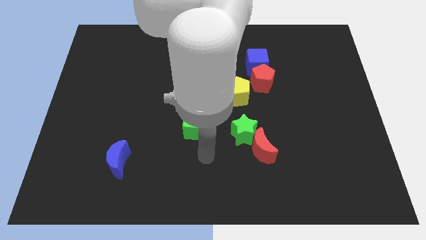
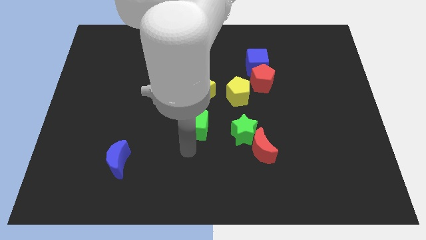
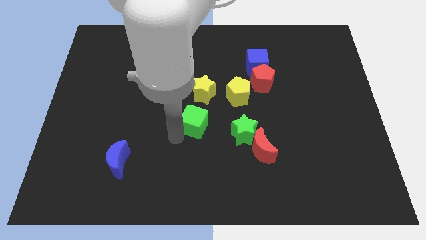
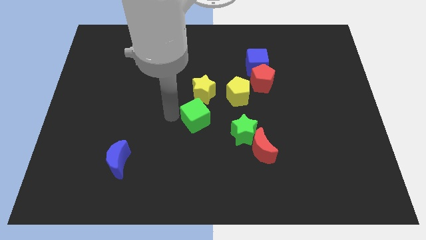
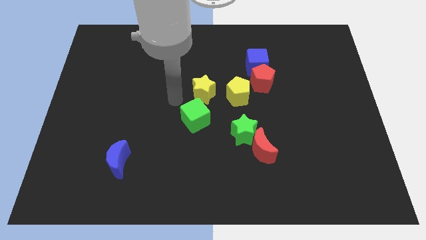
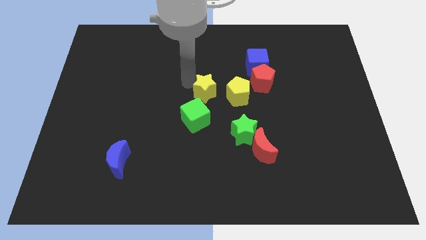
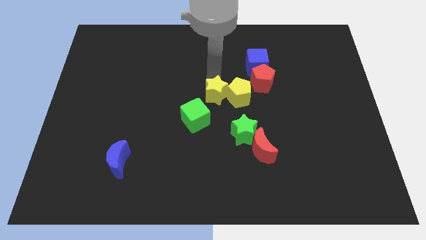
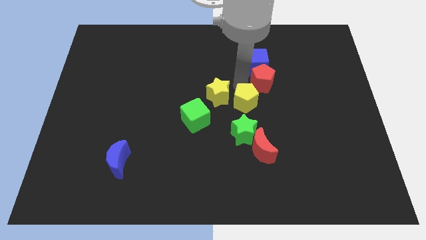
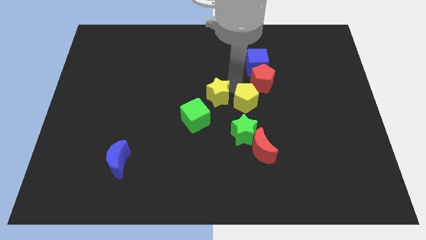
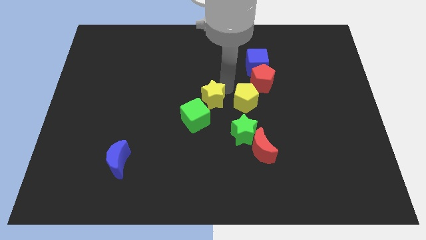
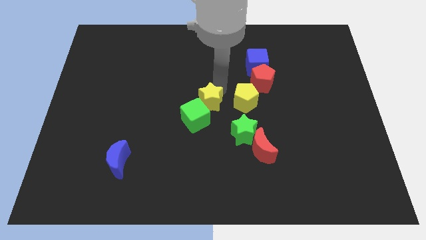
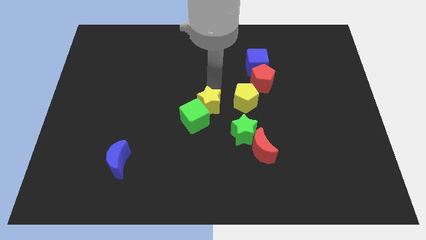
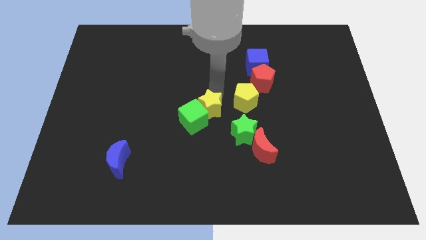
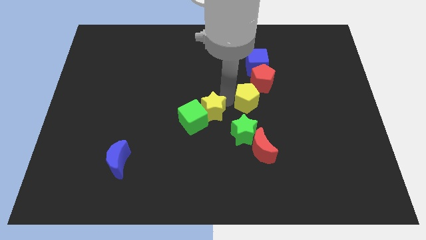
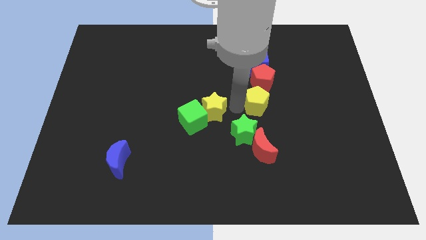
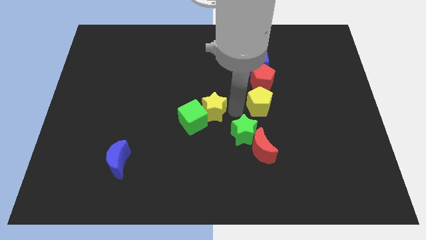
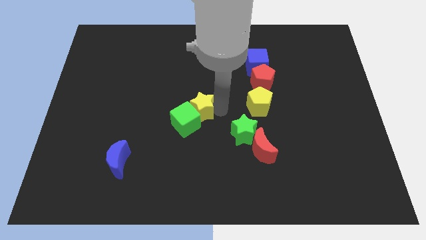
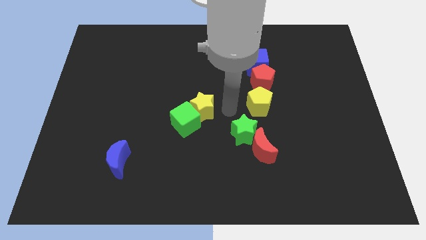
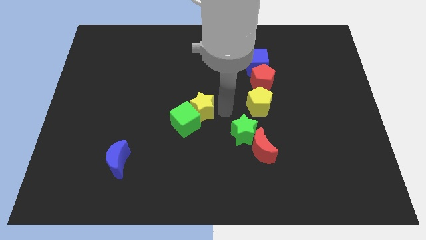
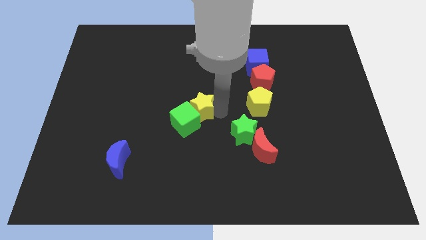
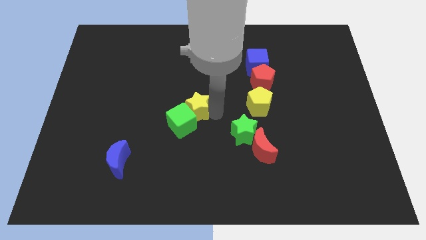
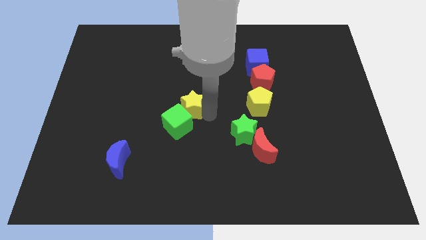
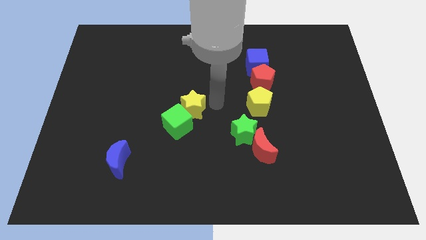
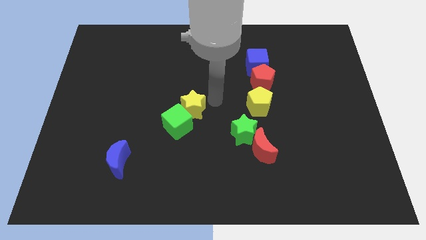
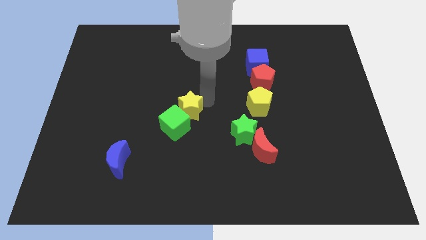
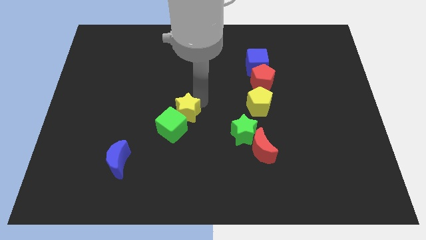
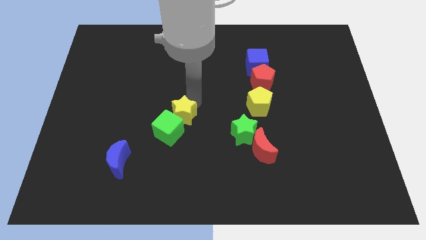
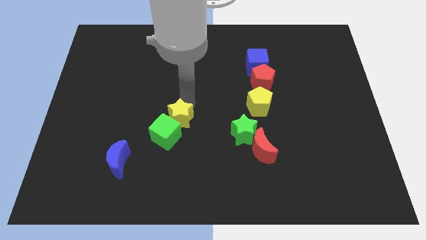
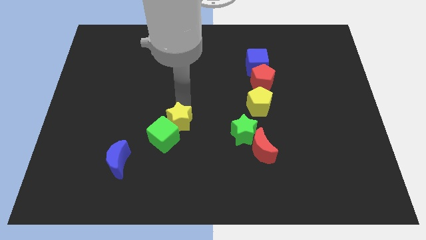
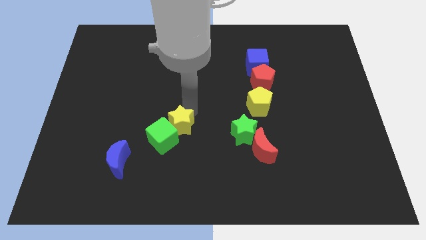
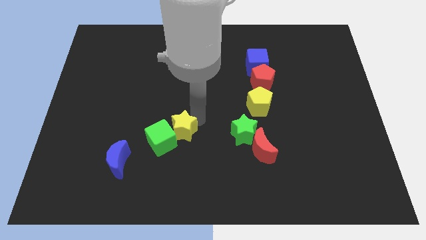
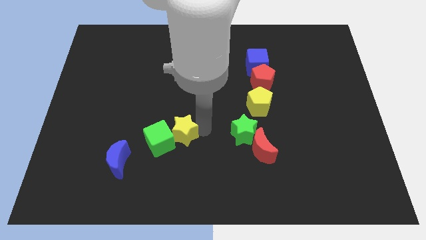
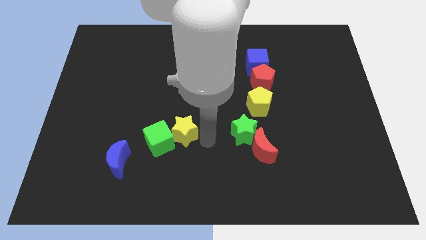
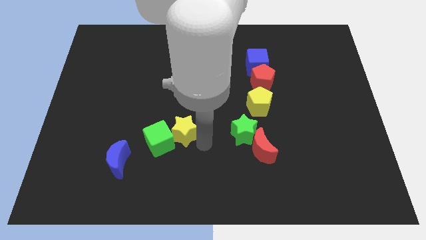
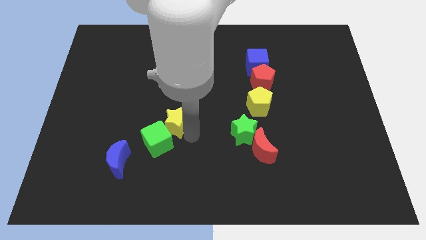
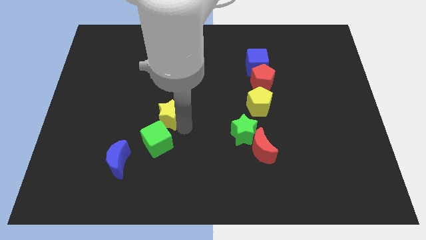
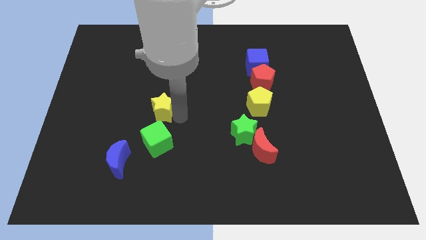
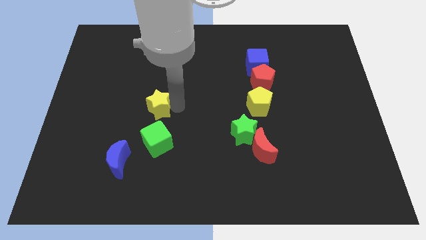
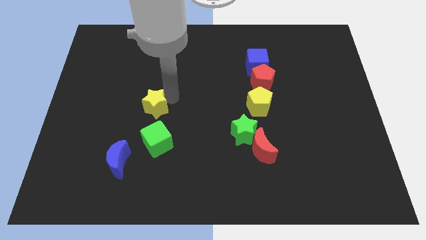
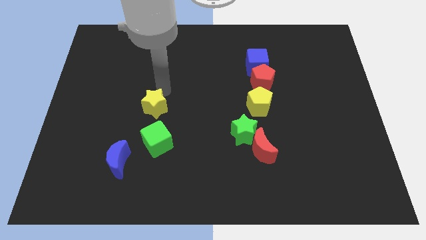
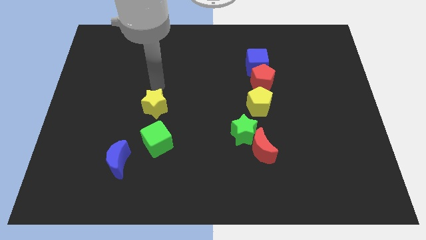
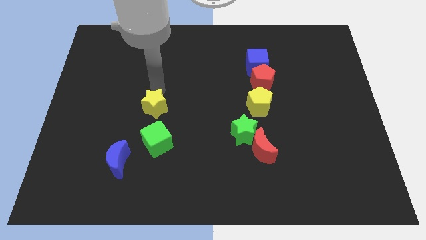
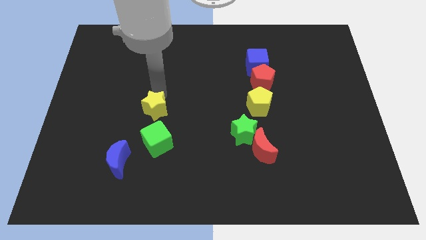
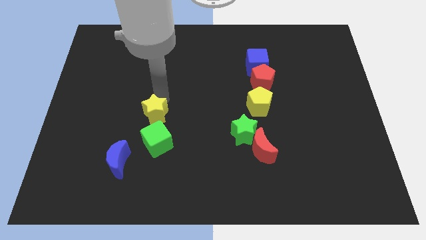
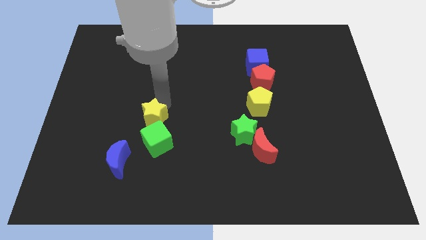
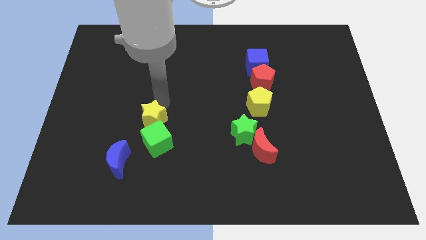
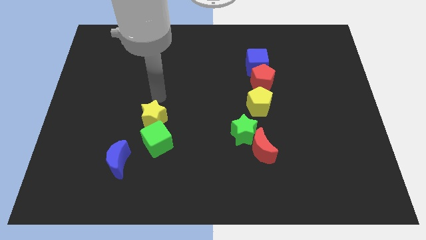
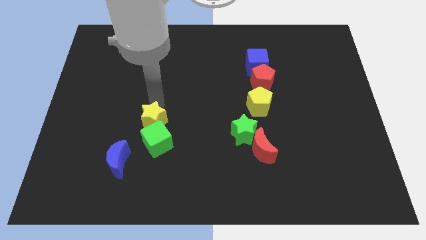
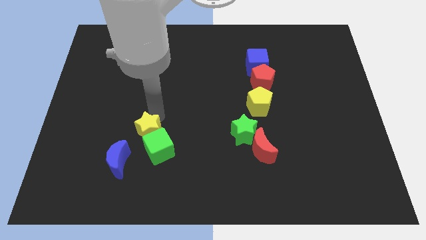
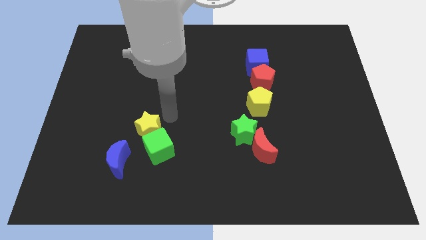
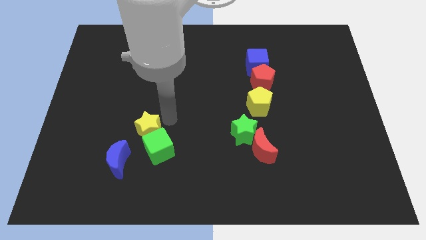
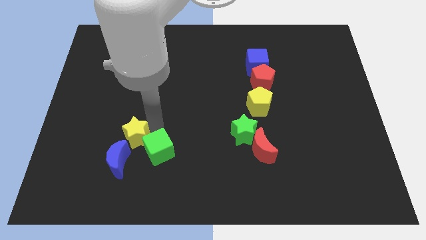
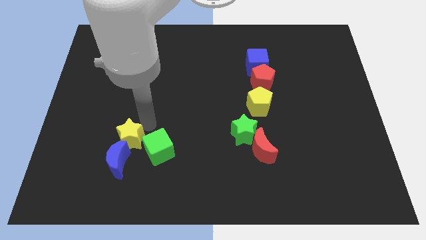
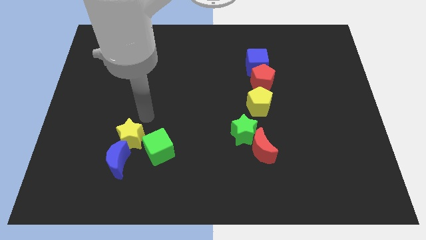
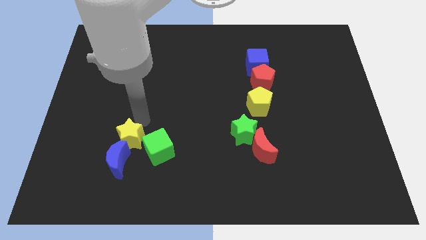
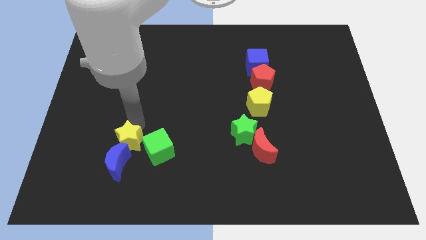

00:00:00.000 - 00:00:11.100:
move the yellow star to the blue moon

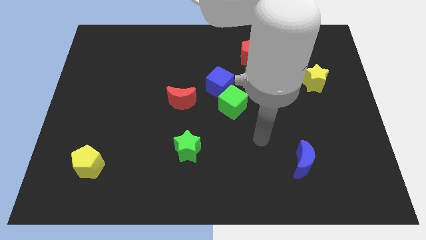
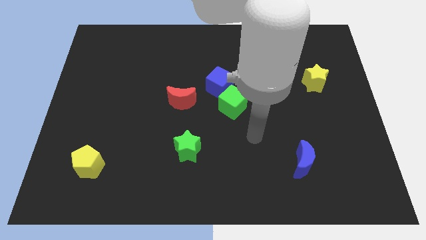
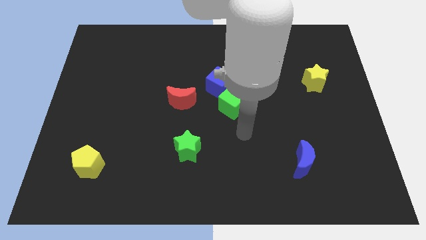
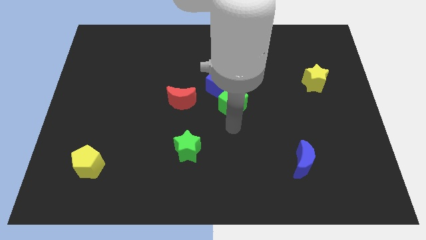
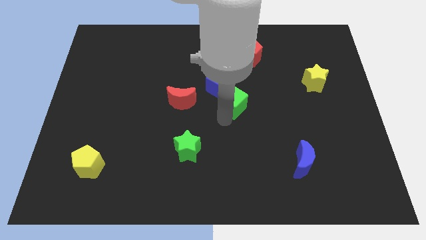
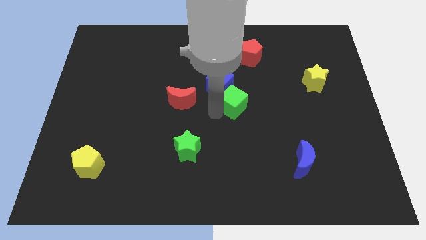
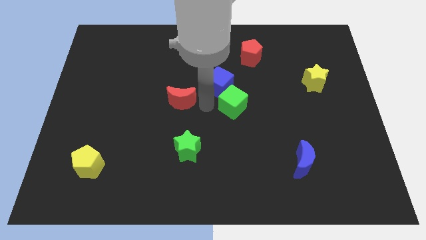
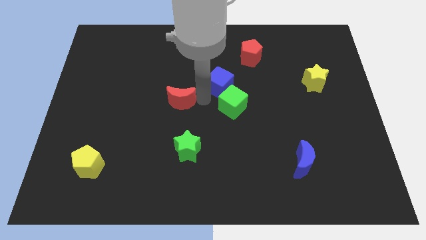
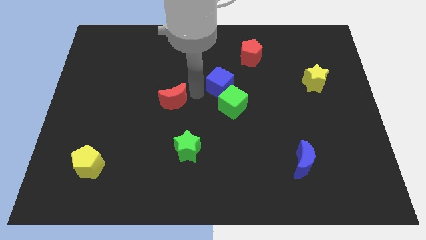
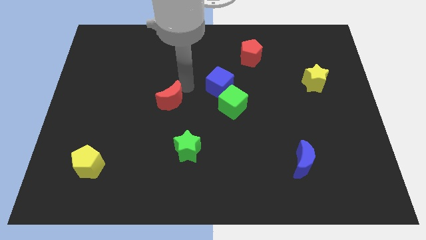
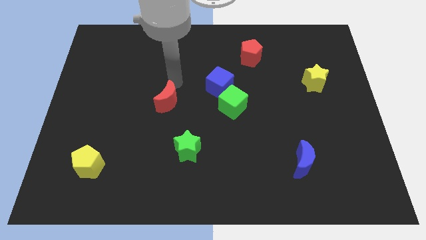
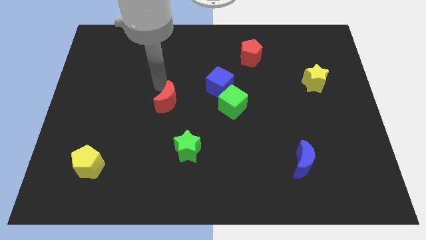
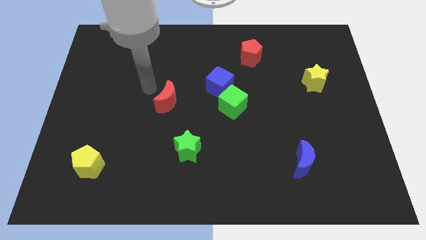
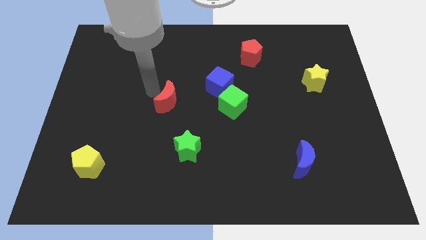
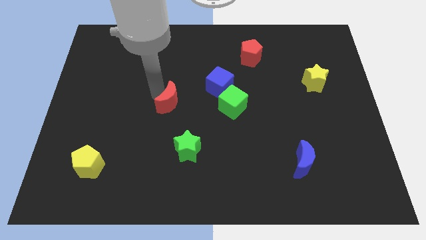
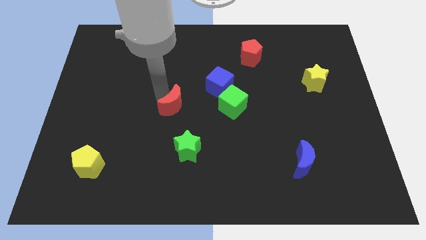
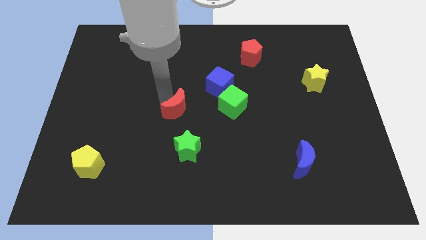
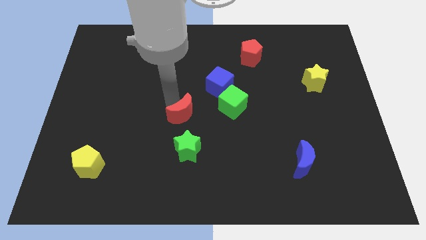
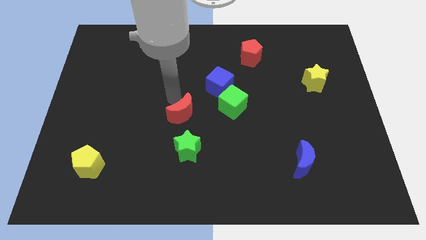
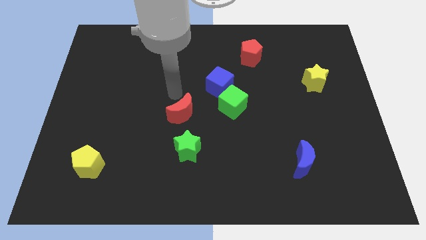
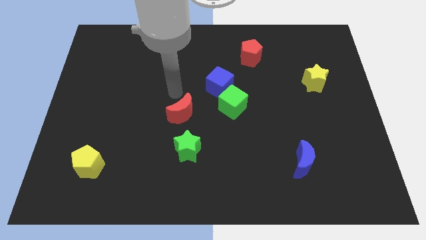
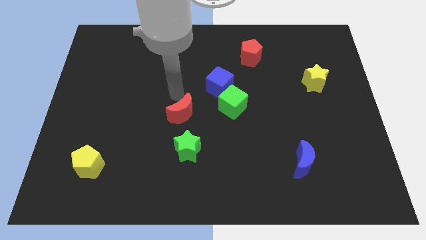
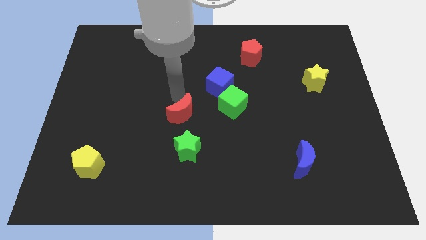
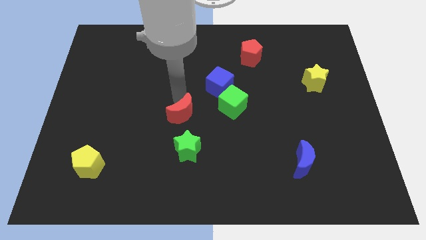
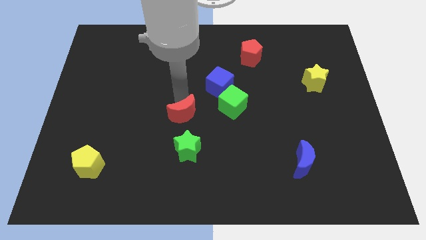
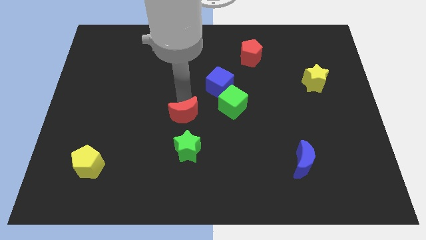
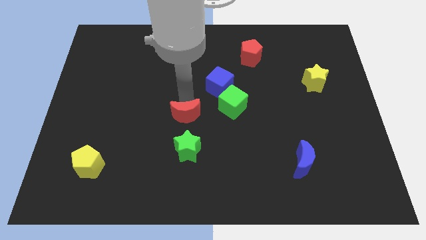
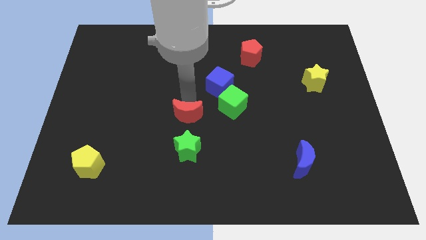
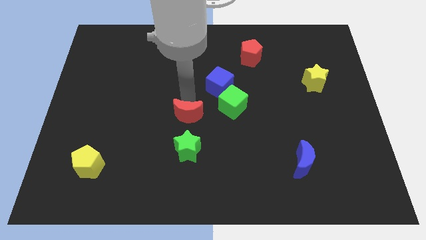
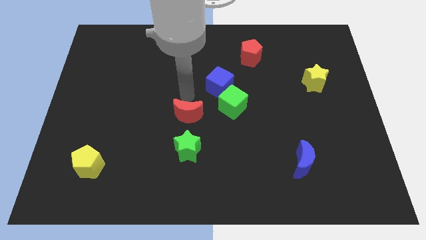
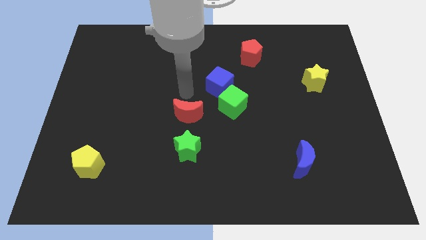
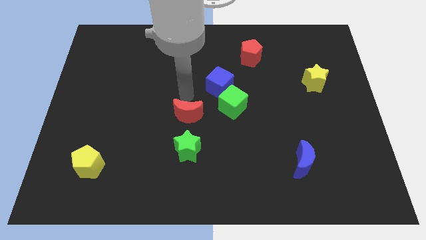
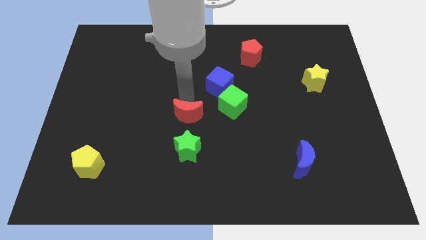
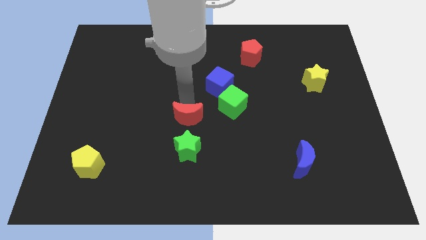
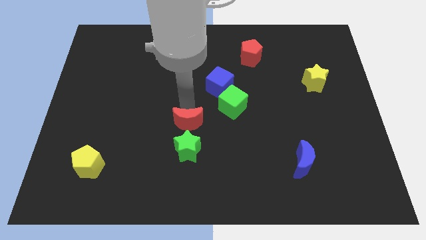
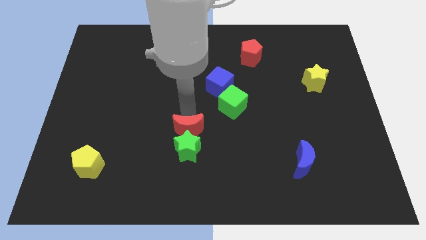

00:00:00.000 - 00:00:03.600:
move the red moon towards the green star
